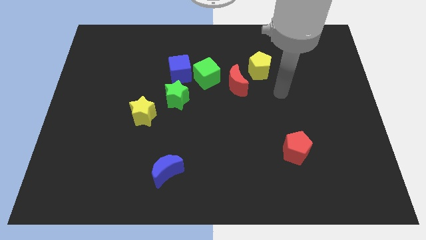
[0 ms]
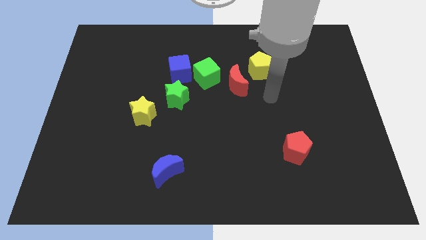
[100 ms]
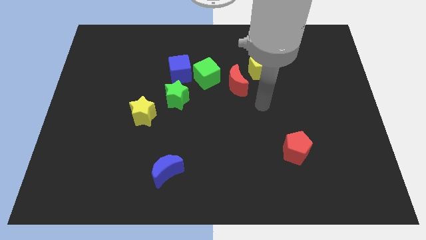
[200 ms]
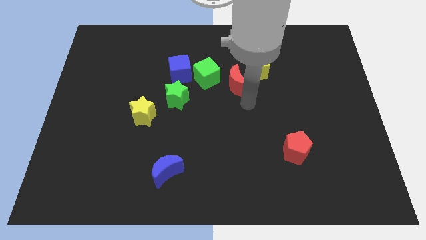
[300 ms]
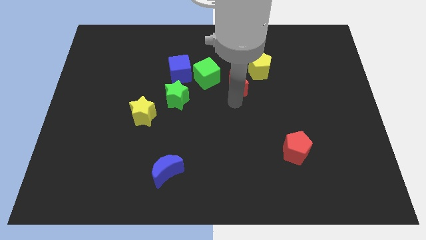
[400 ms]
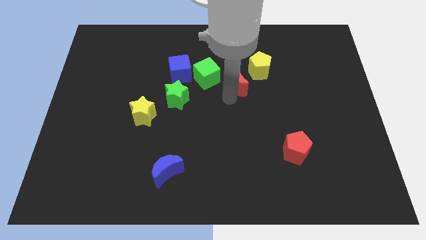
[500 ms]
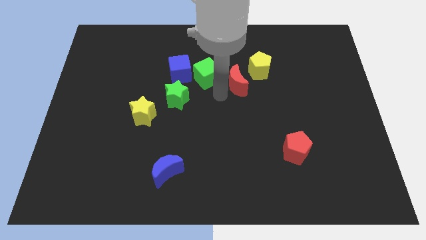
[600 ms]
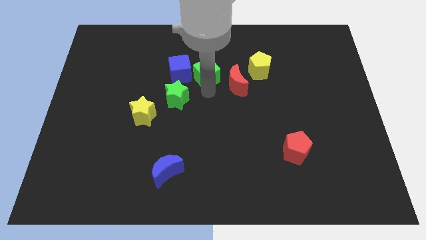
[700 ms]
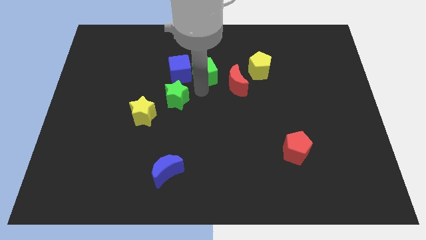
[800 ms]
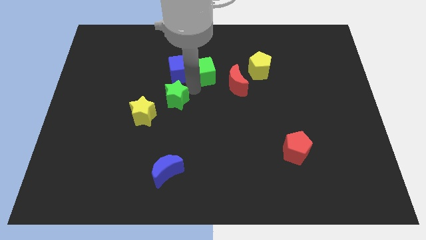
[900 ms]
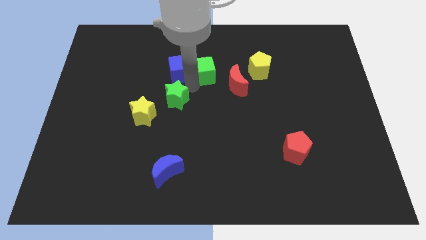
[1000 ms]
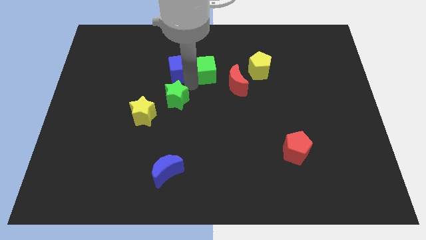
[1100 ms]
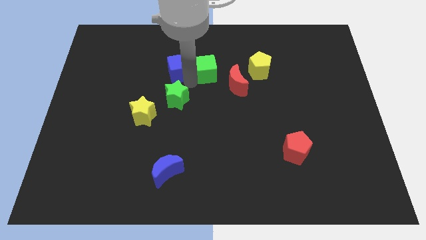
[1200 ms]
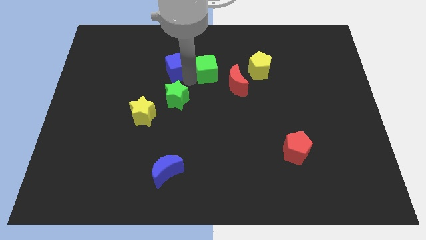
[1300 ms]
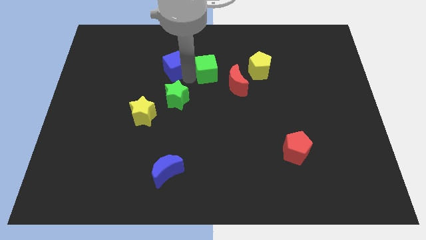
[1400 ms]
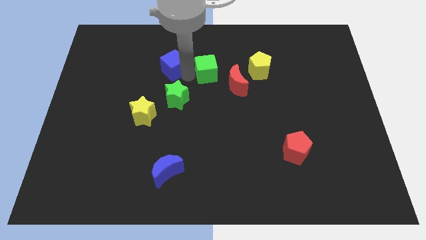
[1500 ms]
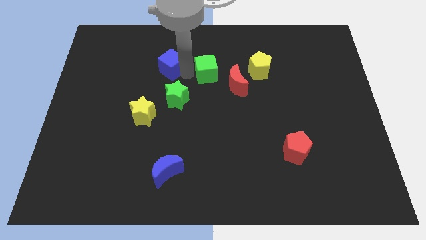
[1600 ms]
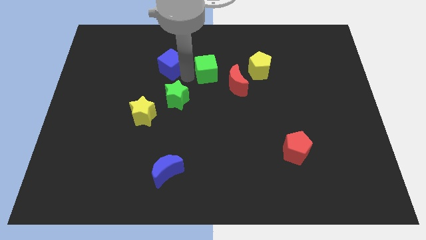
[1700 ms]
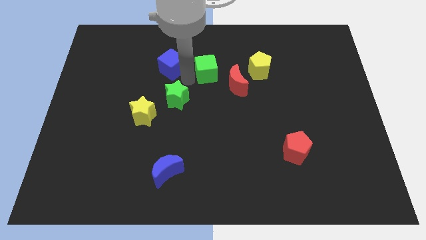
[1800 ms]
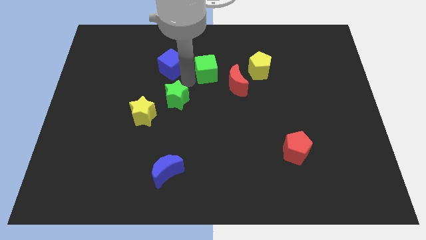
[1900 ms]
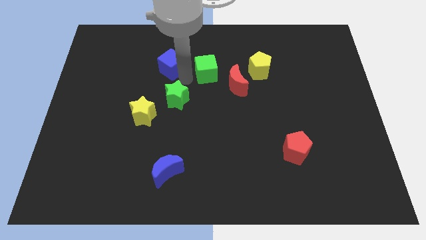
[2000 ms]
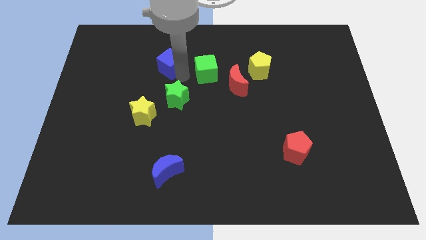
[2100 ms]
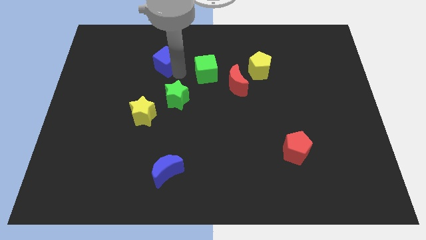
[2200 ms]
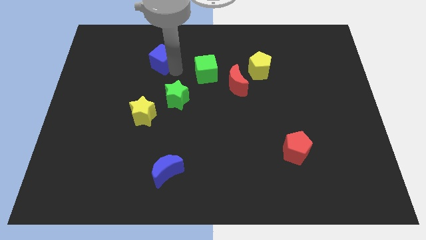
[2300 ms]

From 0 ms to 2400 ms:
separate the blue cube from the green cube and green star

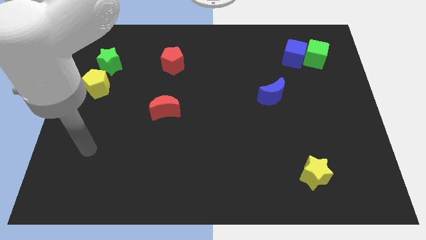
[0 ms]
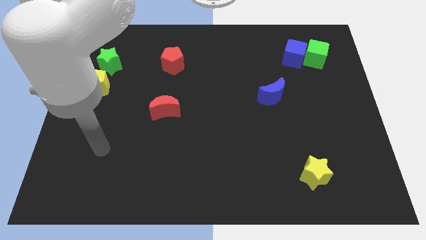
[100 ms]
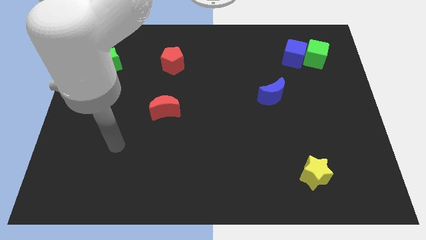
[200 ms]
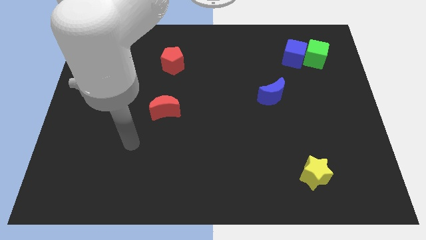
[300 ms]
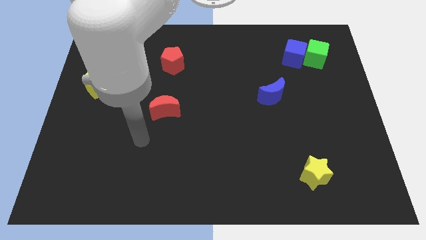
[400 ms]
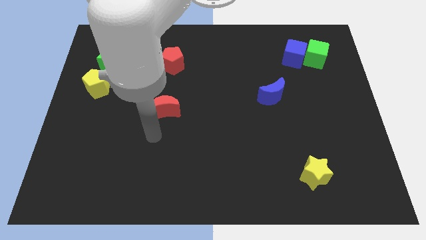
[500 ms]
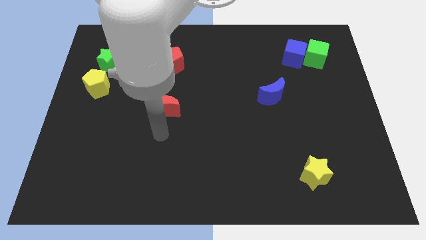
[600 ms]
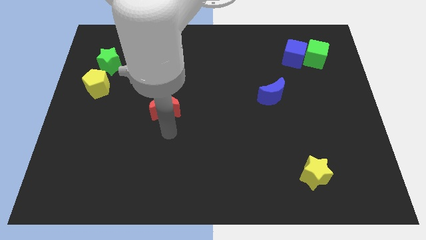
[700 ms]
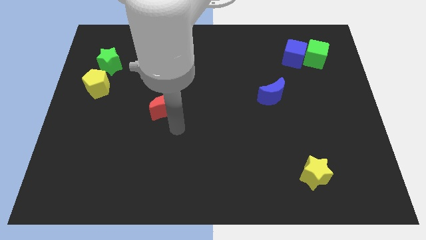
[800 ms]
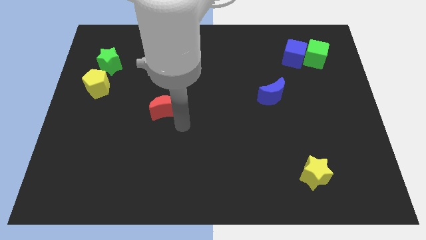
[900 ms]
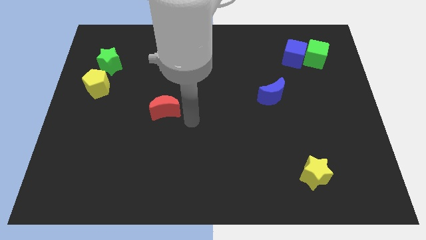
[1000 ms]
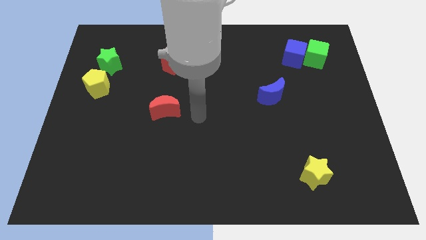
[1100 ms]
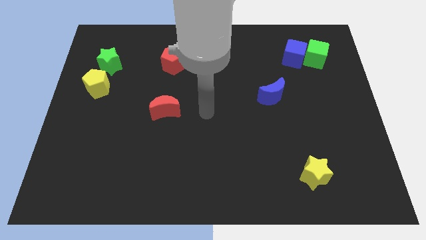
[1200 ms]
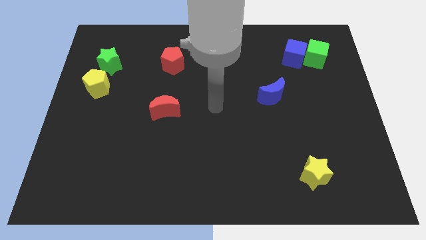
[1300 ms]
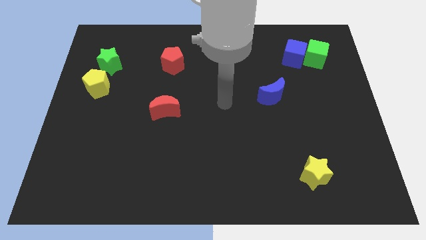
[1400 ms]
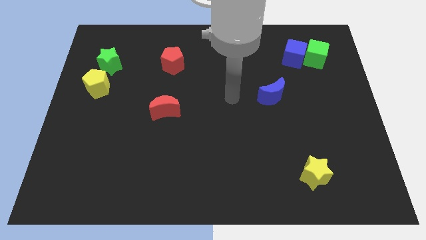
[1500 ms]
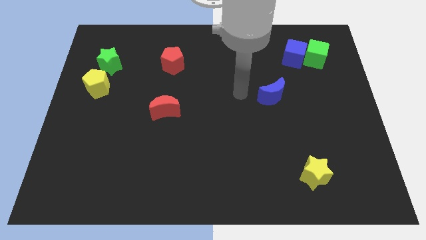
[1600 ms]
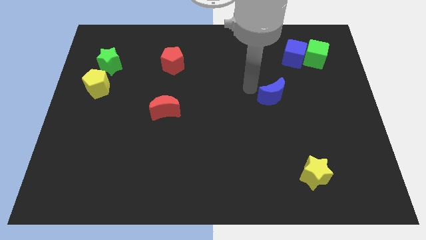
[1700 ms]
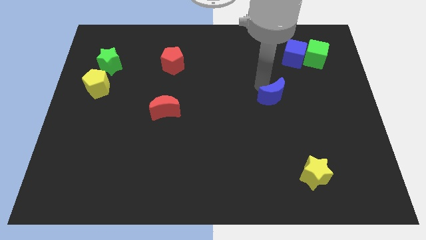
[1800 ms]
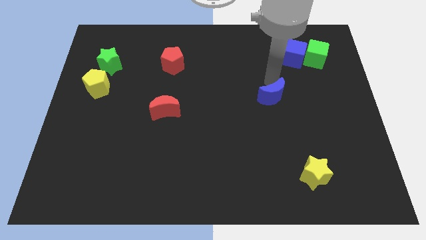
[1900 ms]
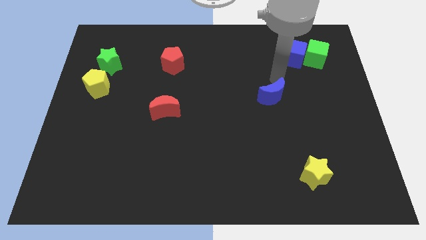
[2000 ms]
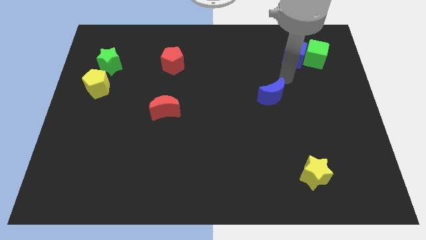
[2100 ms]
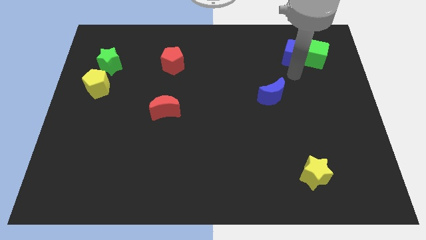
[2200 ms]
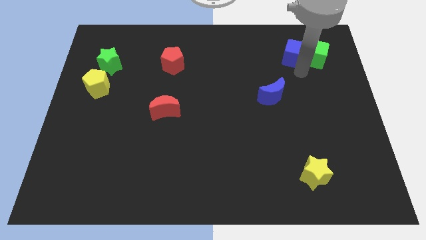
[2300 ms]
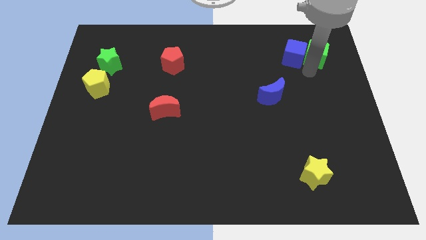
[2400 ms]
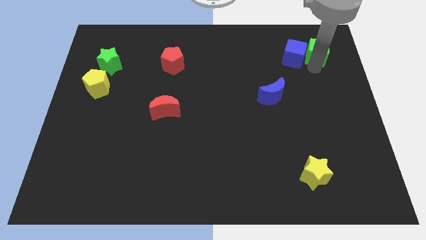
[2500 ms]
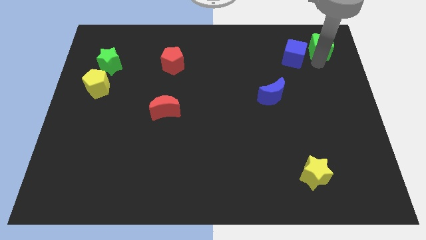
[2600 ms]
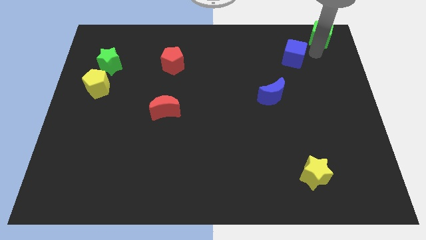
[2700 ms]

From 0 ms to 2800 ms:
move the blue cube away from the green cube

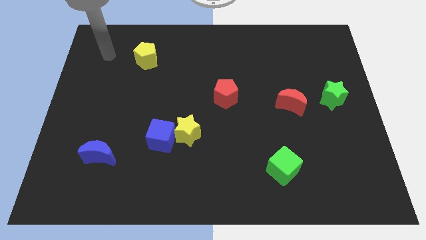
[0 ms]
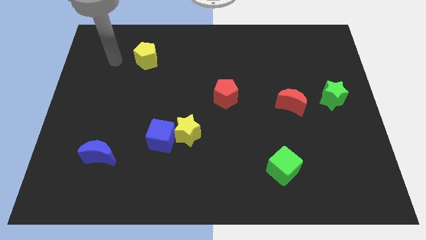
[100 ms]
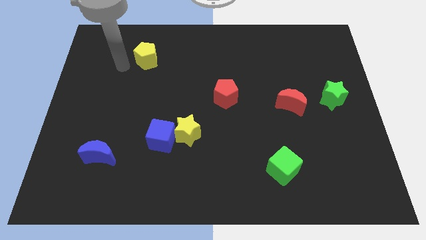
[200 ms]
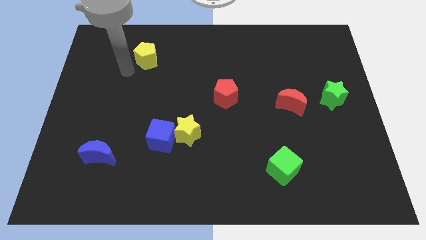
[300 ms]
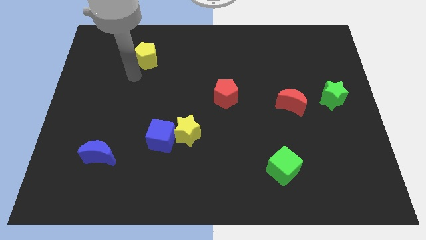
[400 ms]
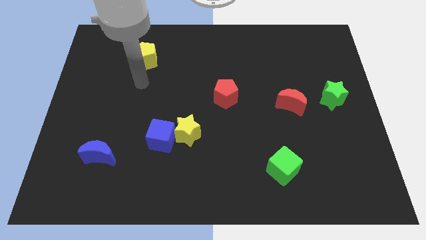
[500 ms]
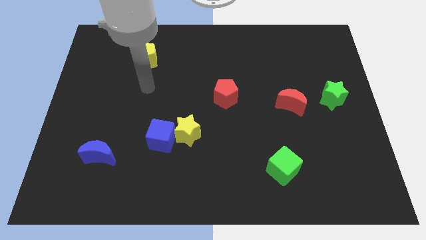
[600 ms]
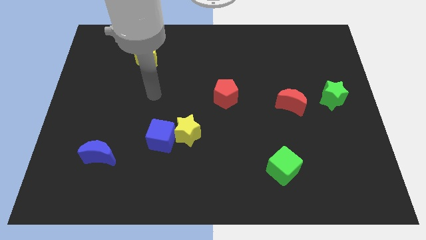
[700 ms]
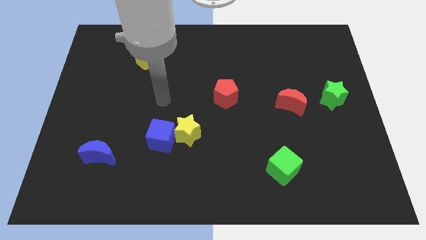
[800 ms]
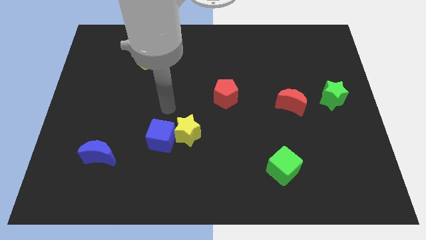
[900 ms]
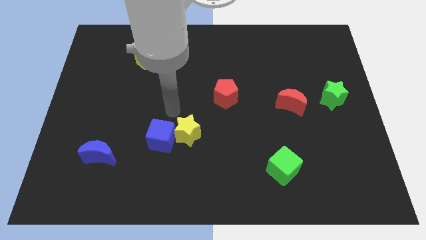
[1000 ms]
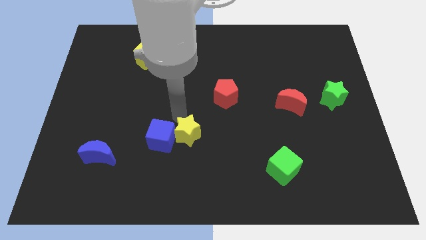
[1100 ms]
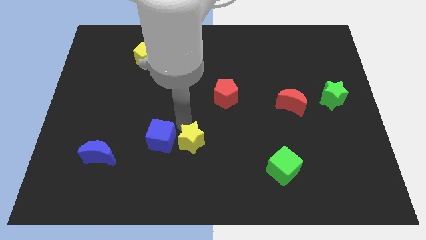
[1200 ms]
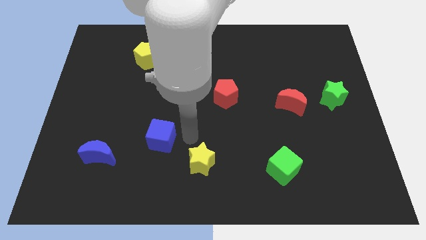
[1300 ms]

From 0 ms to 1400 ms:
separate the blue cube from the yellow star

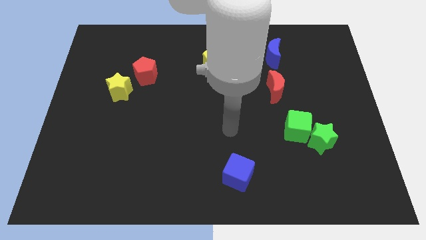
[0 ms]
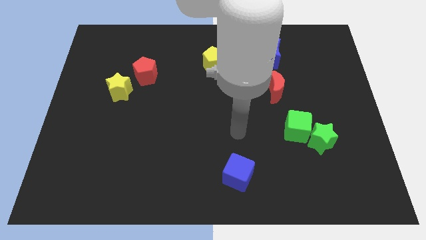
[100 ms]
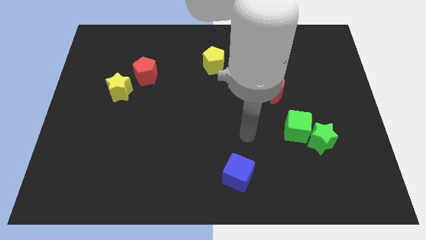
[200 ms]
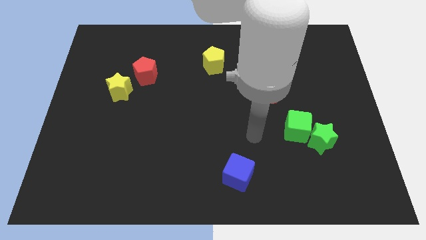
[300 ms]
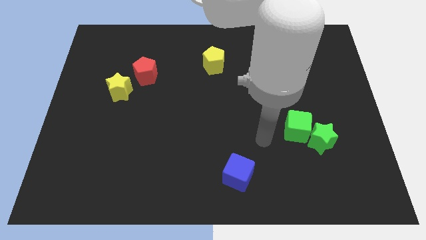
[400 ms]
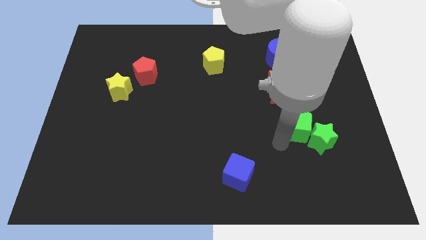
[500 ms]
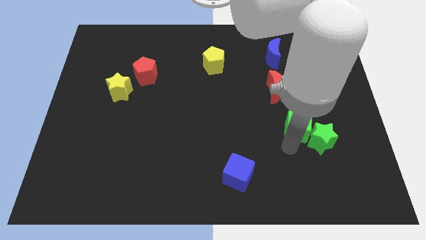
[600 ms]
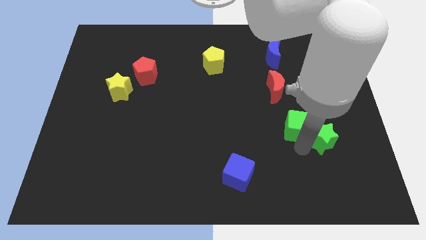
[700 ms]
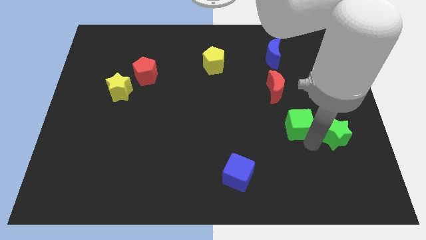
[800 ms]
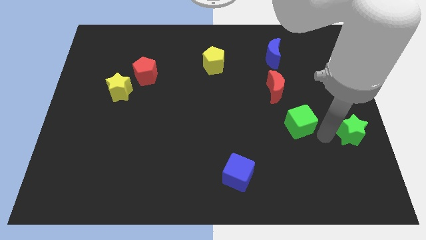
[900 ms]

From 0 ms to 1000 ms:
pull the green cube apart from the green star

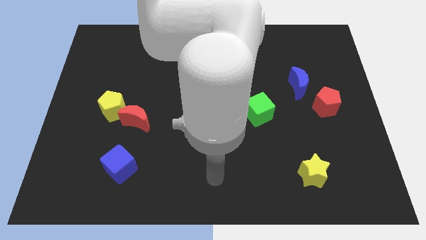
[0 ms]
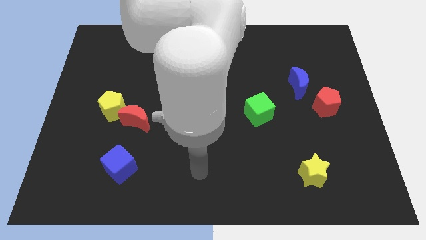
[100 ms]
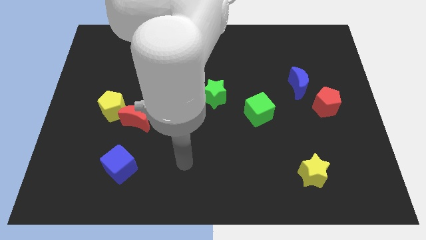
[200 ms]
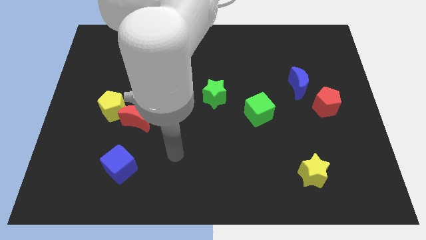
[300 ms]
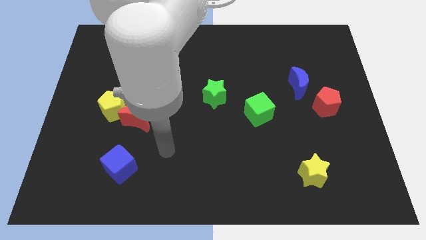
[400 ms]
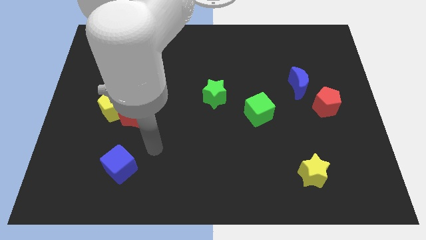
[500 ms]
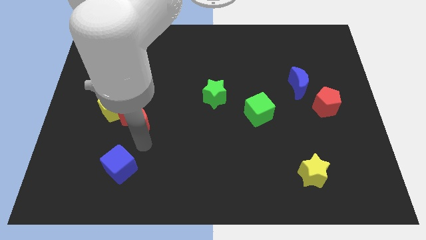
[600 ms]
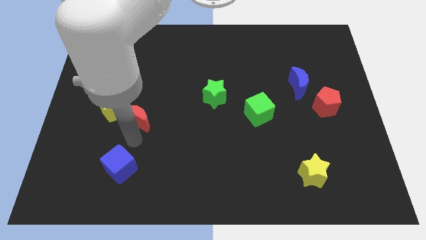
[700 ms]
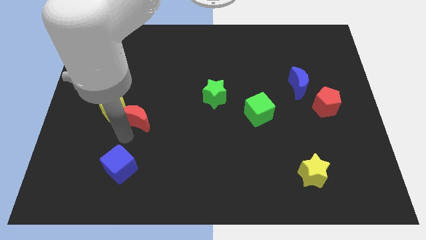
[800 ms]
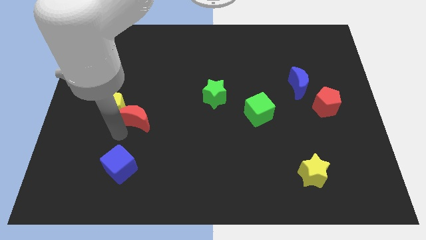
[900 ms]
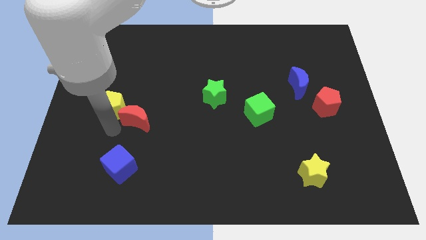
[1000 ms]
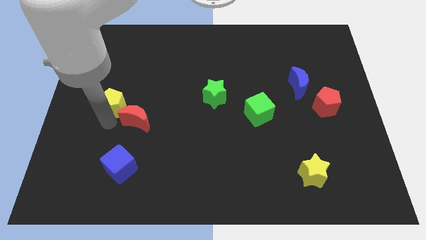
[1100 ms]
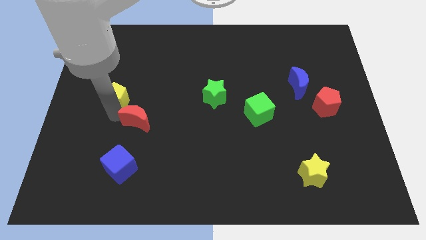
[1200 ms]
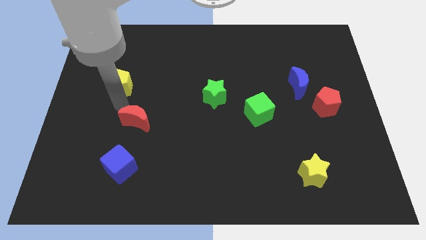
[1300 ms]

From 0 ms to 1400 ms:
move the red moon away from the yellow pentagon

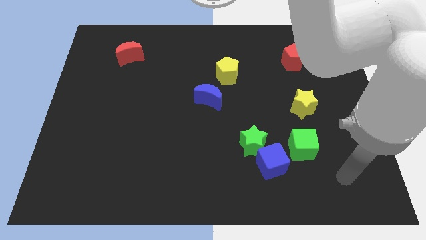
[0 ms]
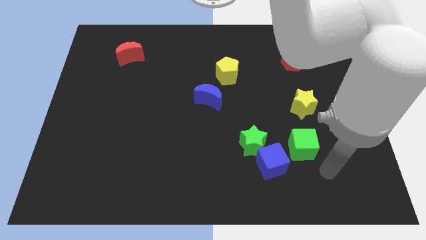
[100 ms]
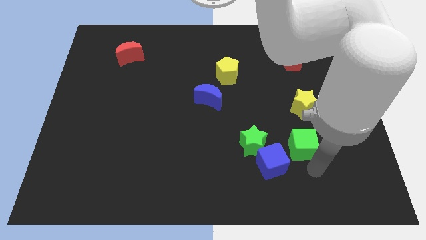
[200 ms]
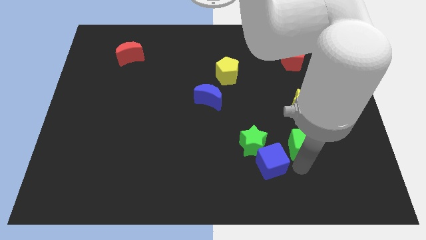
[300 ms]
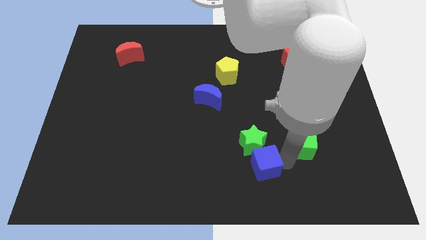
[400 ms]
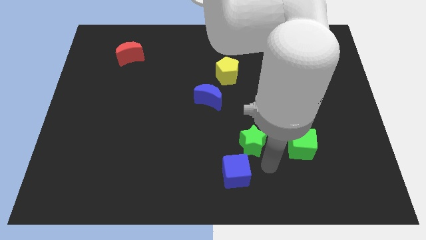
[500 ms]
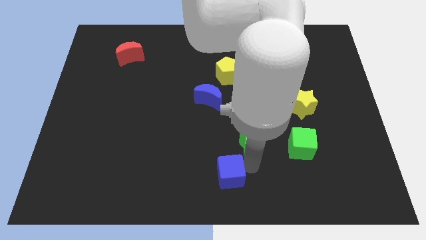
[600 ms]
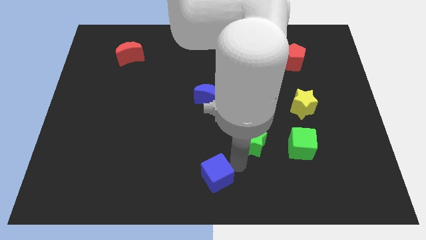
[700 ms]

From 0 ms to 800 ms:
separate the green star from the blue cube
